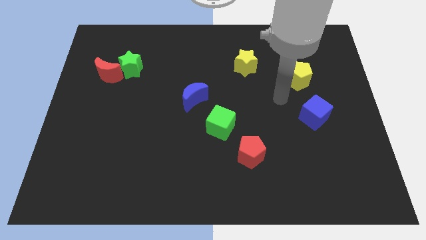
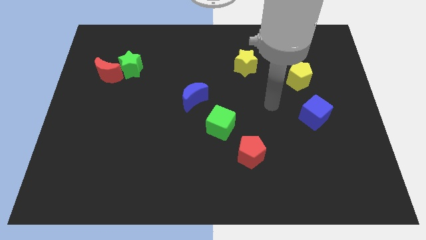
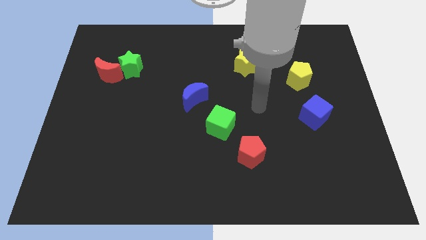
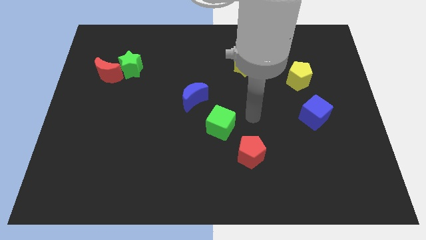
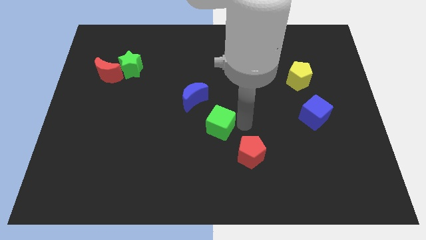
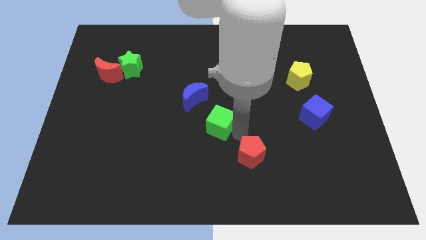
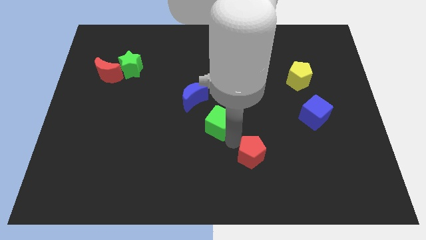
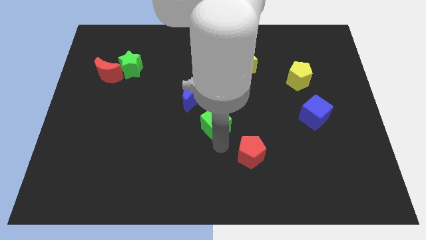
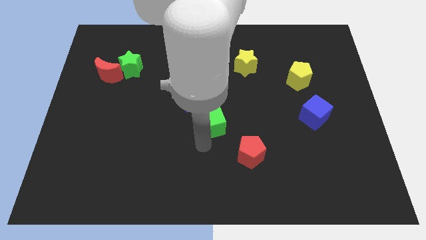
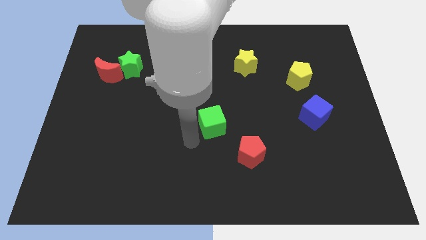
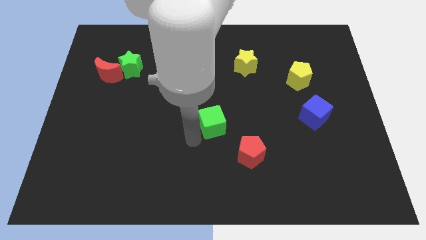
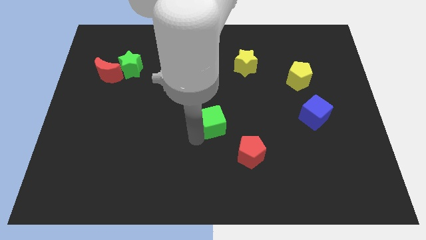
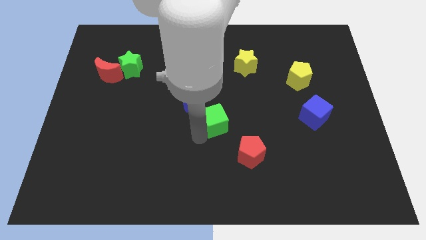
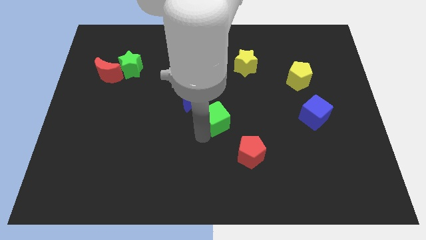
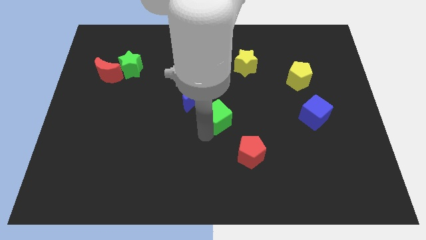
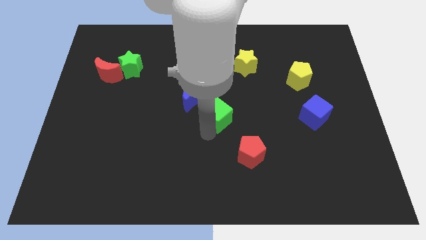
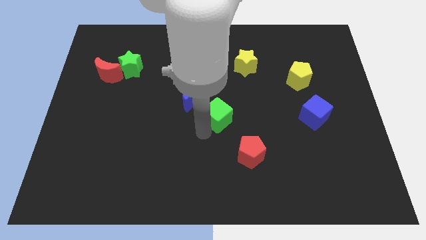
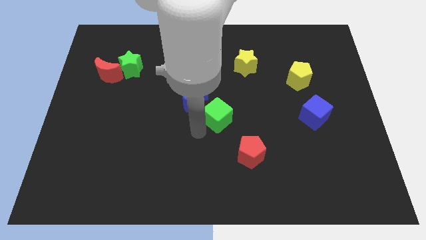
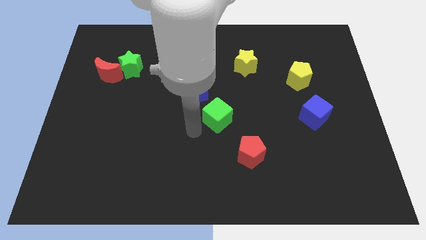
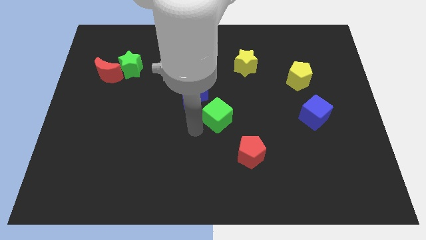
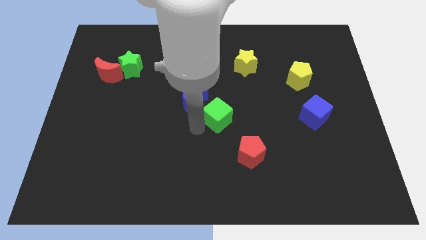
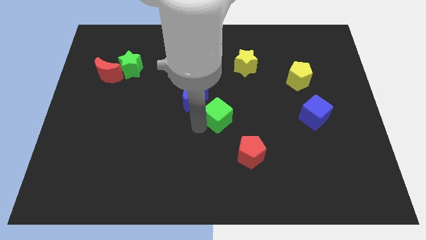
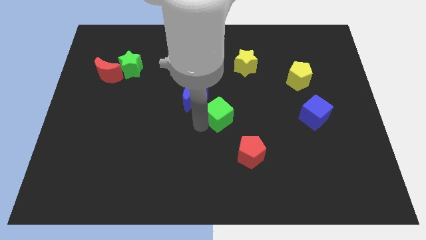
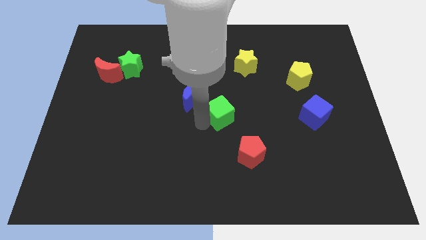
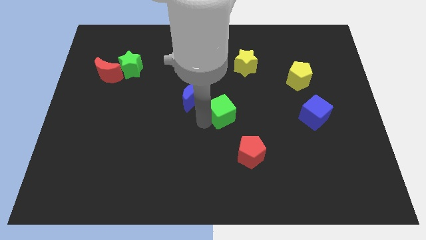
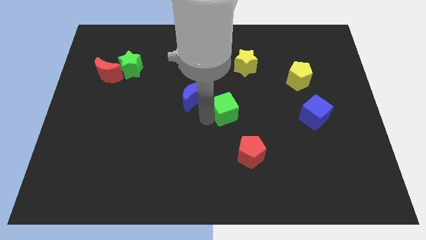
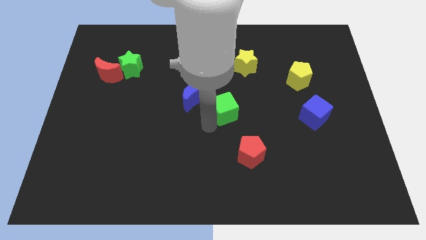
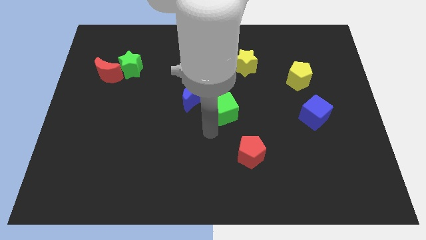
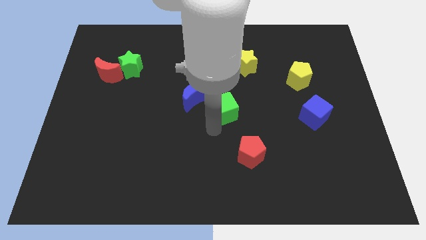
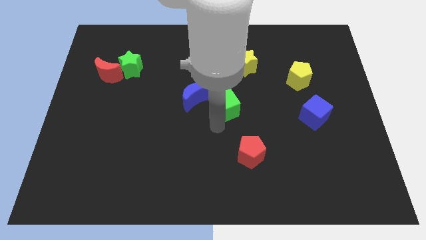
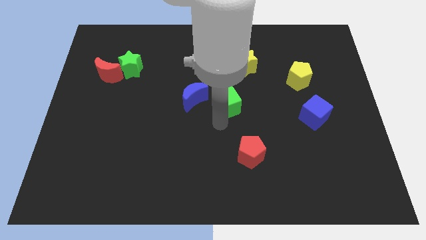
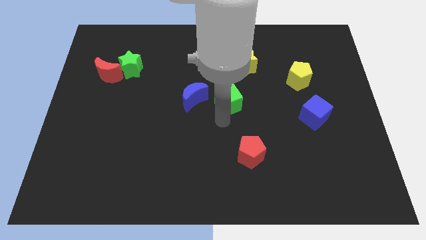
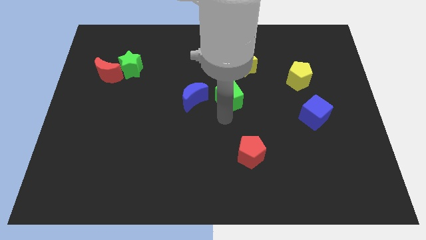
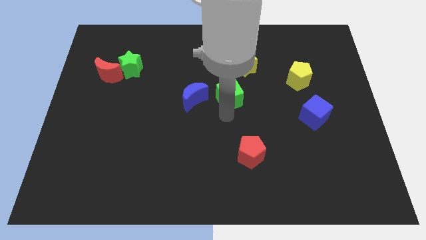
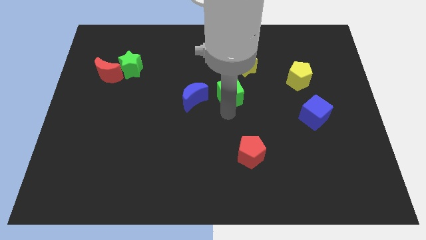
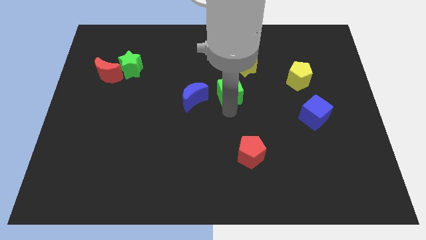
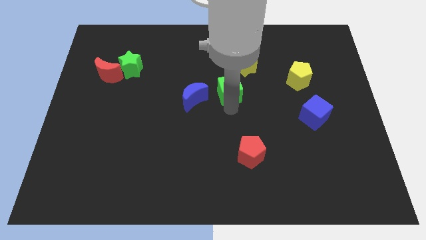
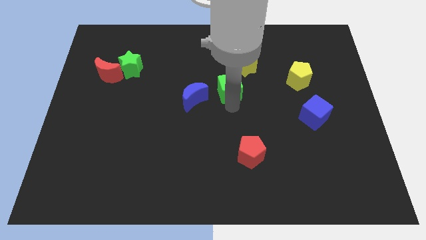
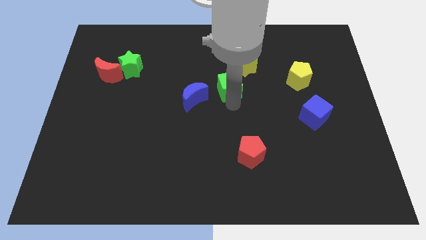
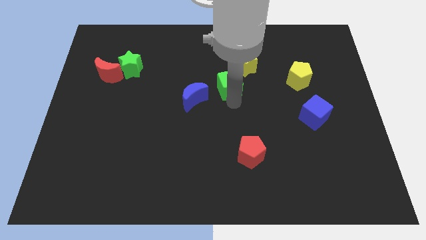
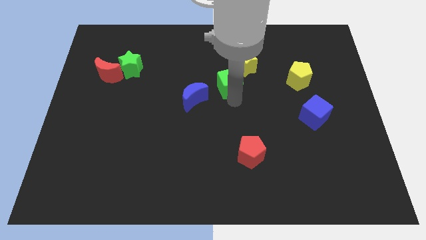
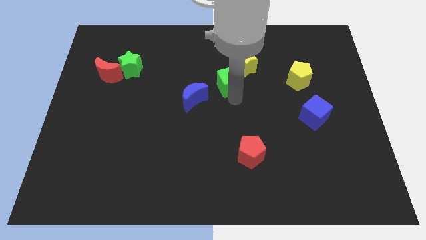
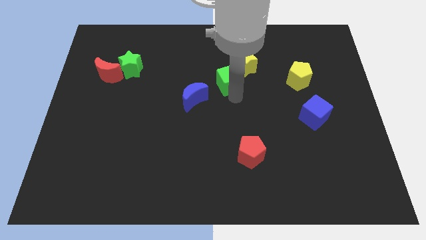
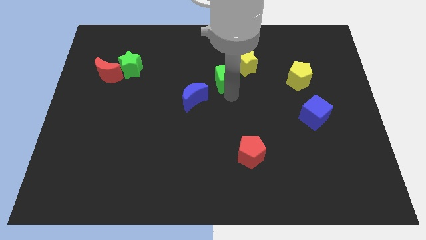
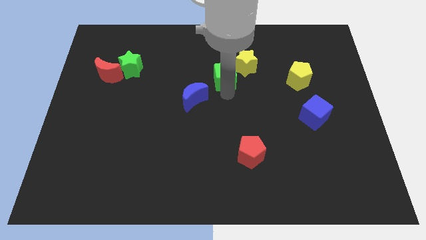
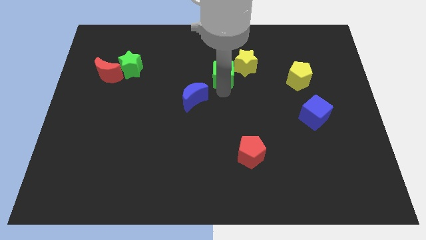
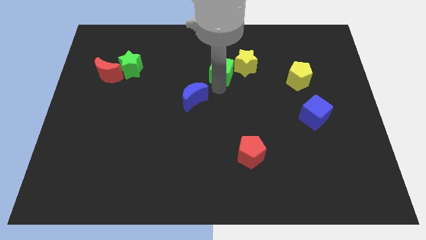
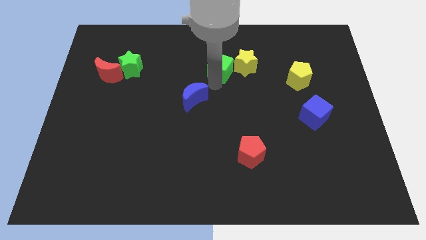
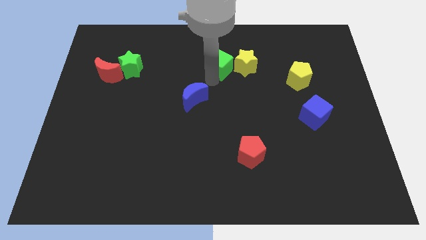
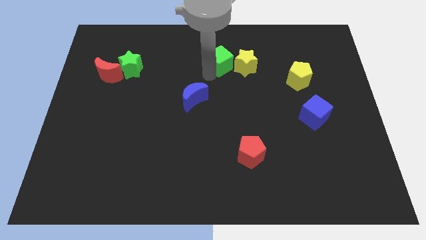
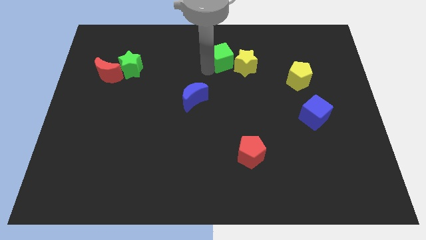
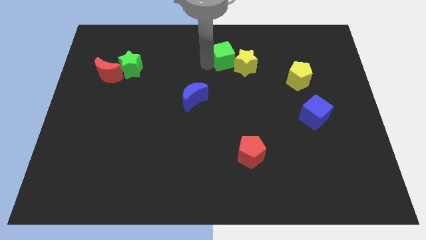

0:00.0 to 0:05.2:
push the green cube towards the yellow star

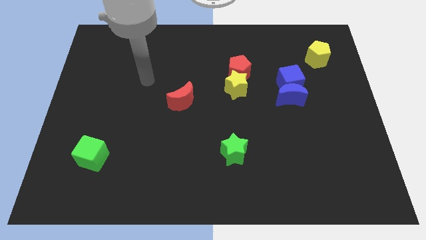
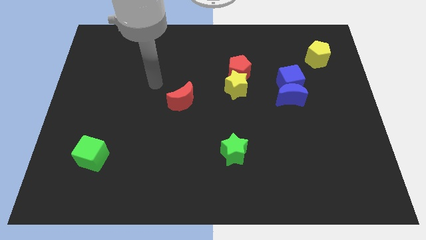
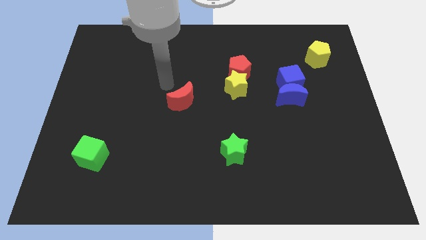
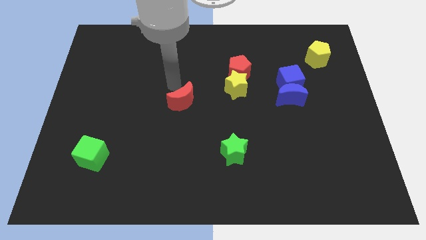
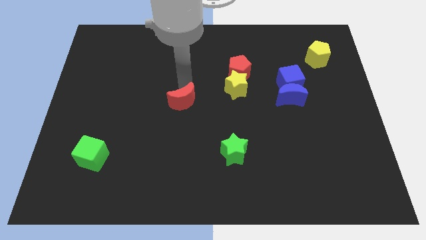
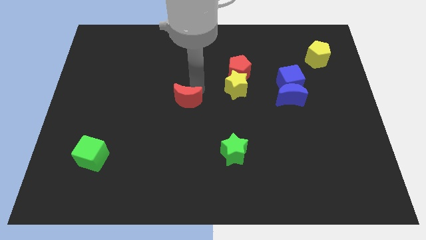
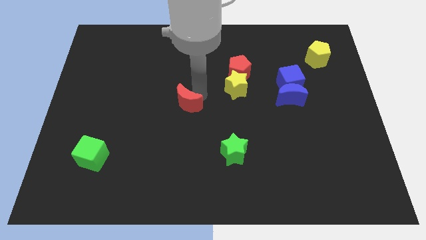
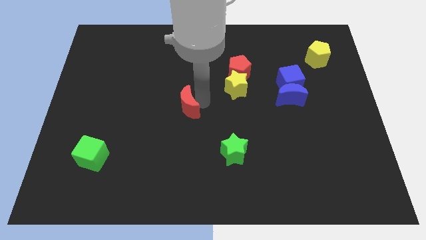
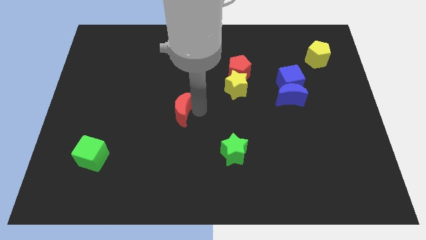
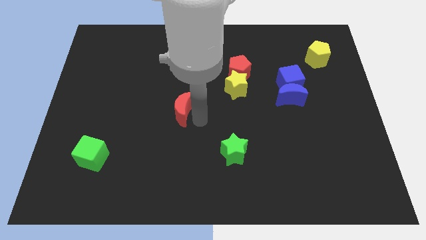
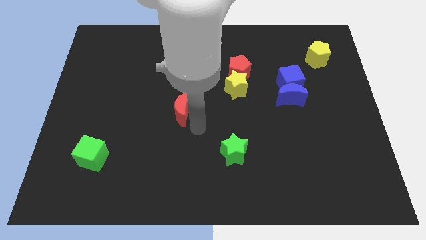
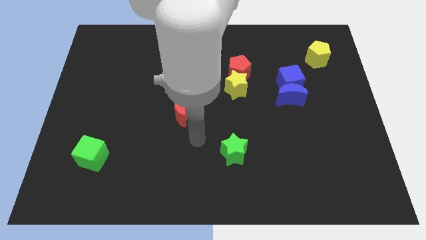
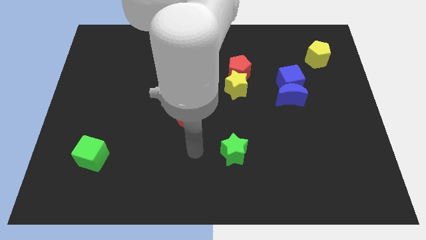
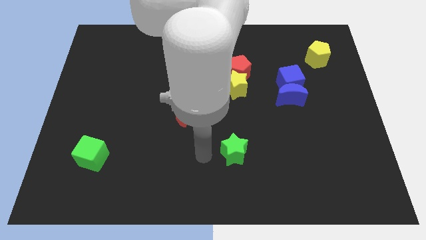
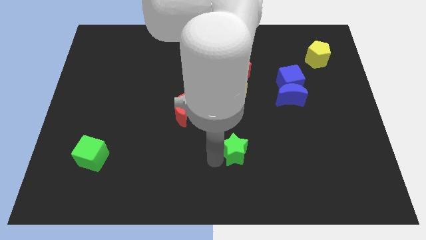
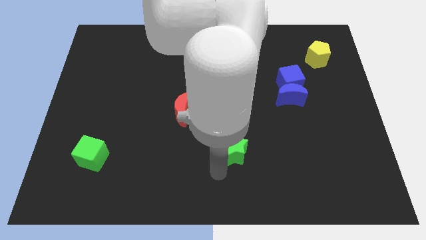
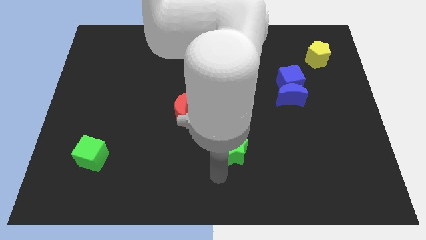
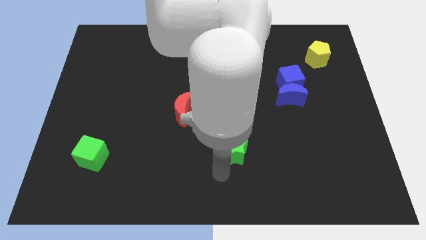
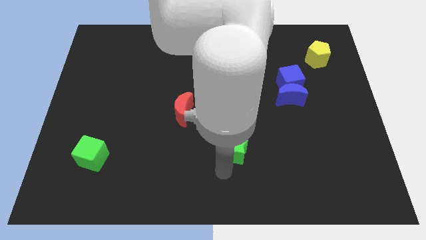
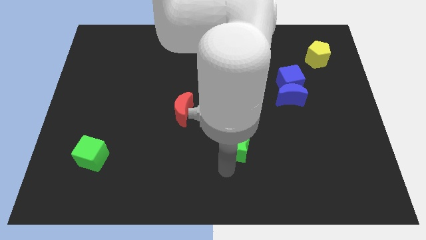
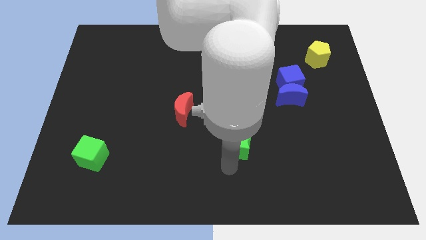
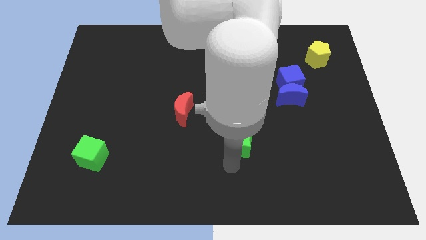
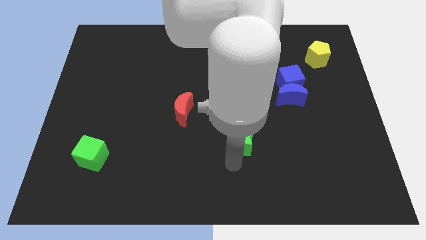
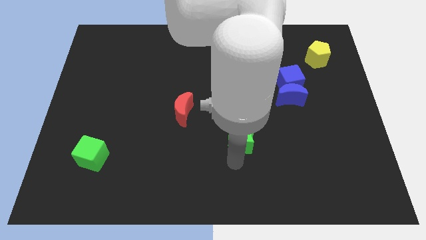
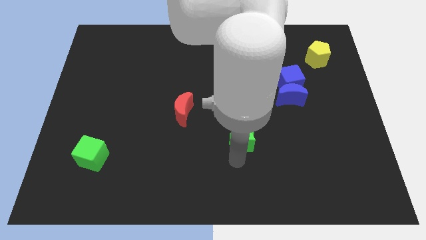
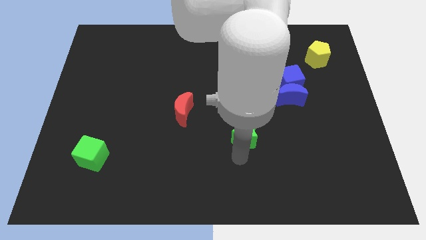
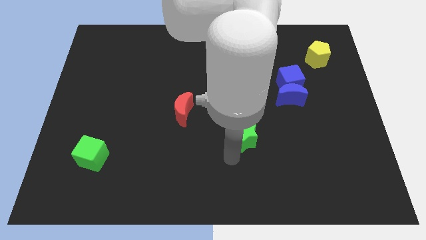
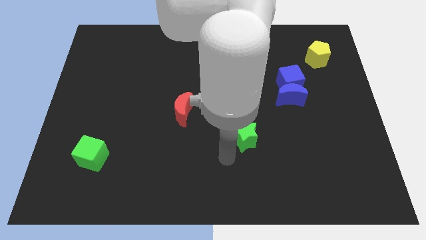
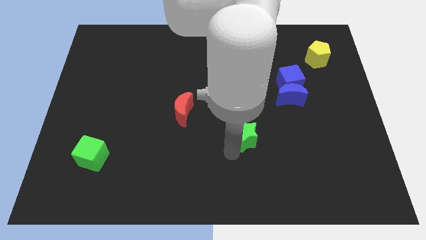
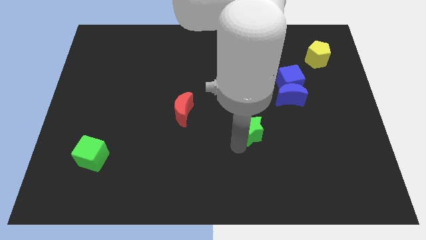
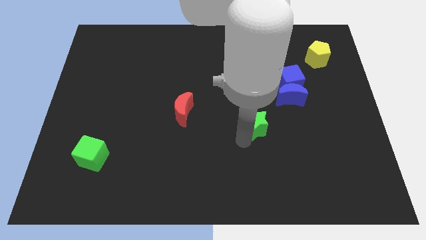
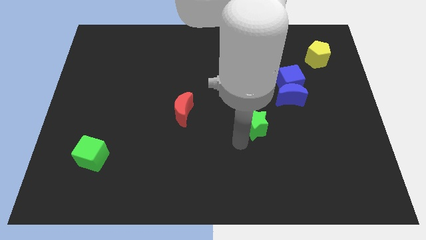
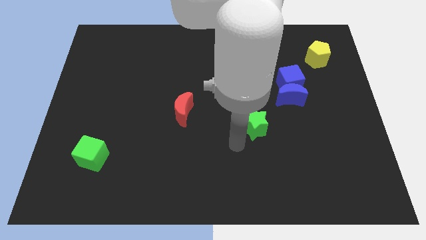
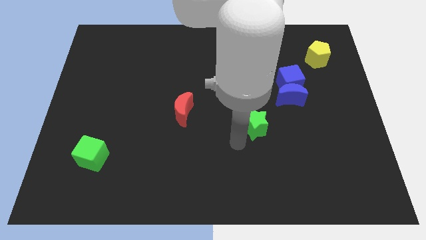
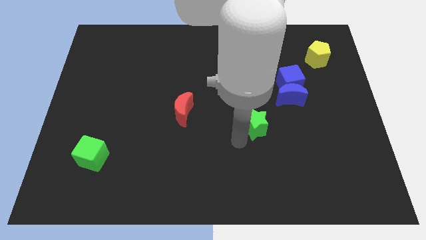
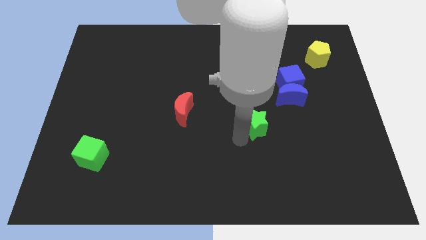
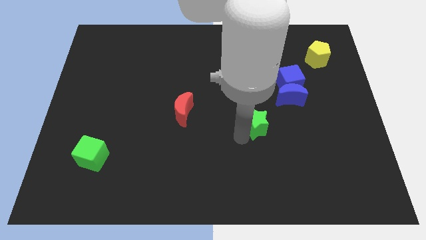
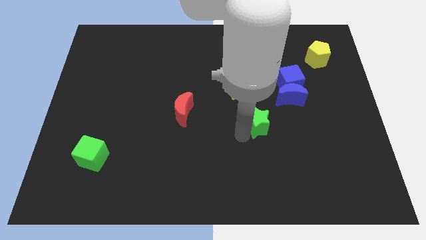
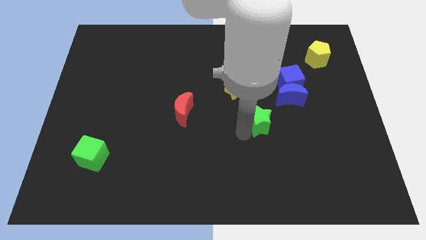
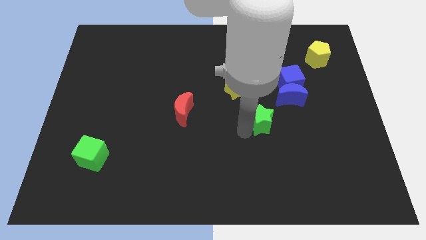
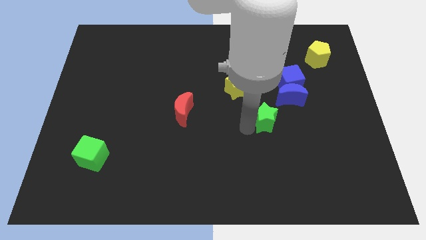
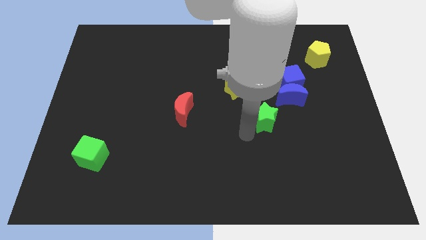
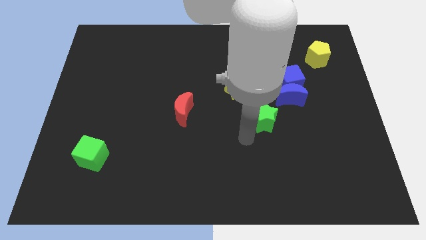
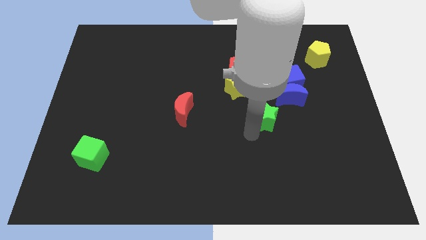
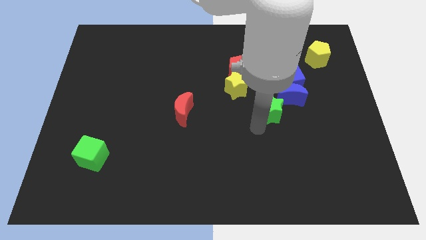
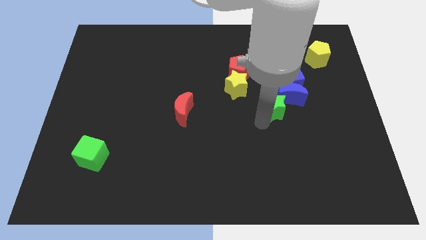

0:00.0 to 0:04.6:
push the green star next to the blue moon
